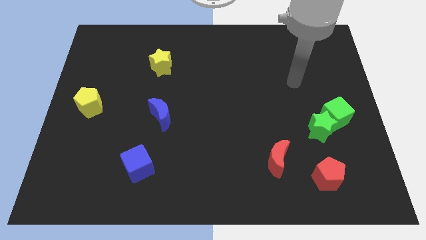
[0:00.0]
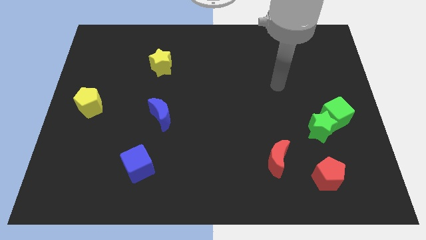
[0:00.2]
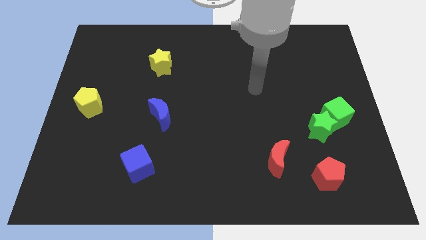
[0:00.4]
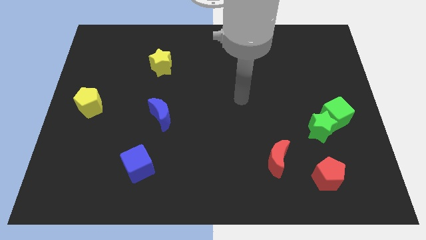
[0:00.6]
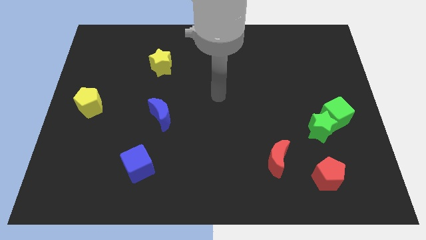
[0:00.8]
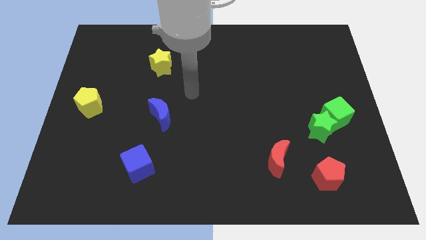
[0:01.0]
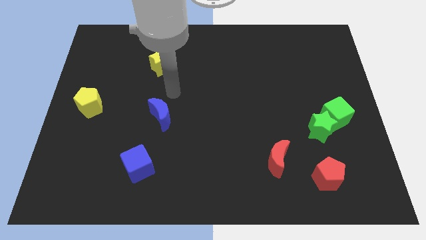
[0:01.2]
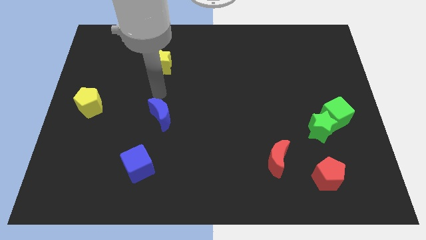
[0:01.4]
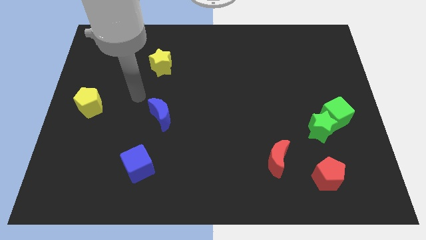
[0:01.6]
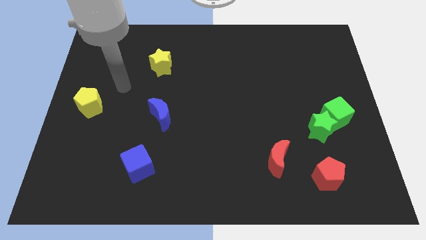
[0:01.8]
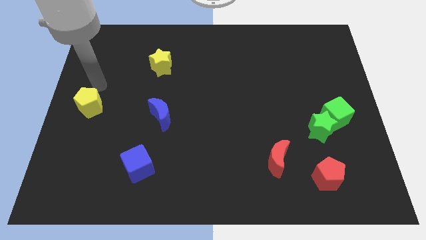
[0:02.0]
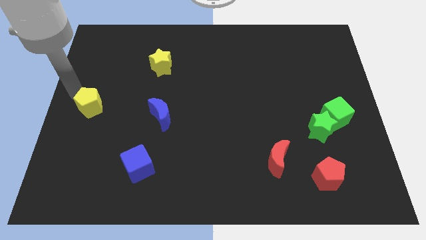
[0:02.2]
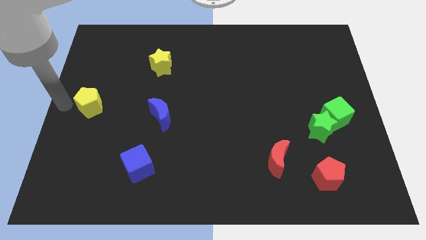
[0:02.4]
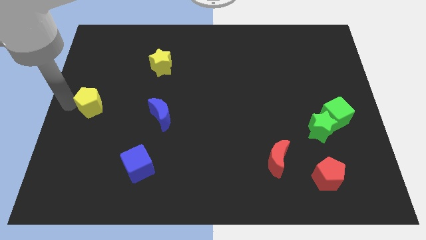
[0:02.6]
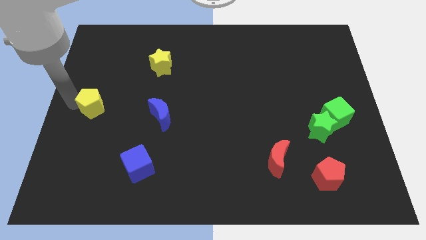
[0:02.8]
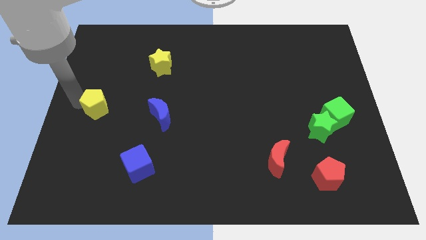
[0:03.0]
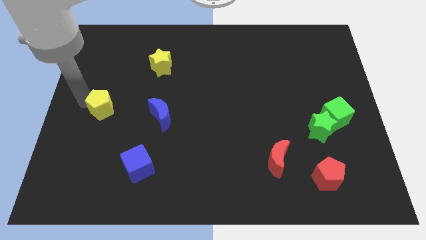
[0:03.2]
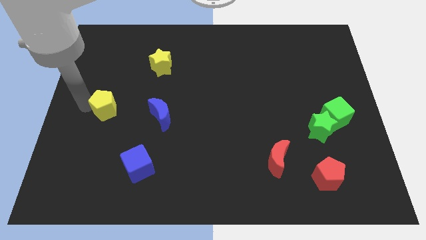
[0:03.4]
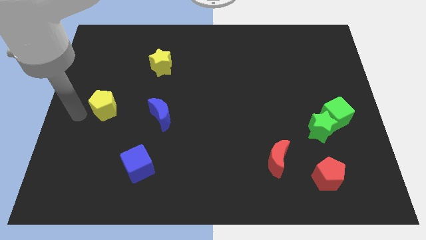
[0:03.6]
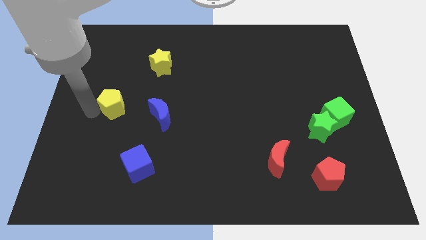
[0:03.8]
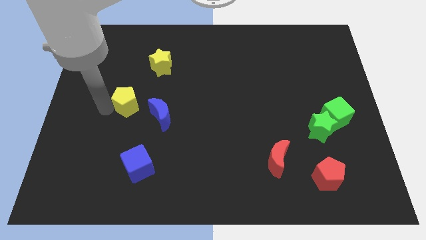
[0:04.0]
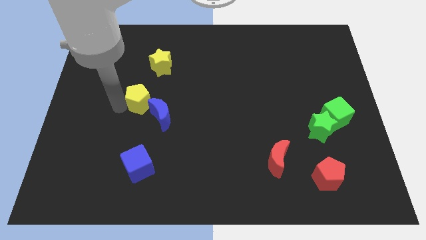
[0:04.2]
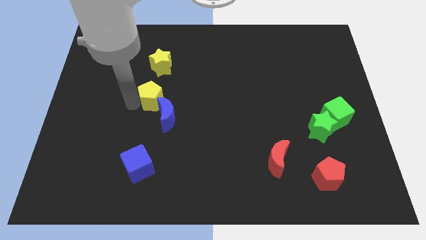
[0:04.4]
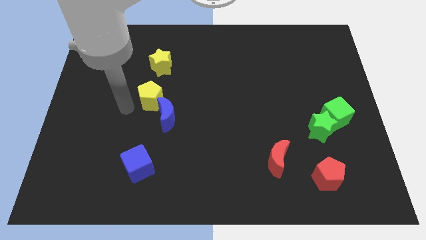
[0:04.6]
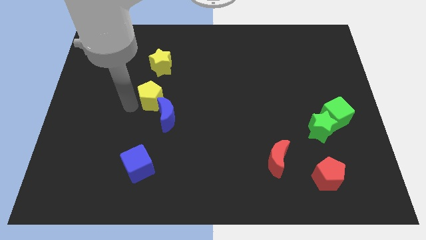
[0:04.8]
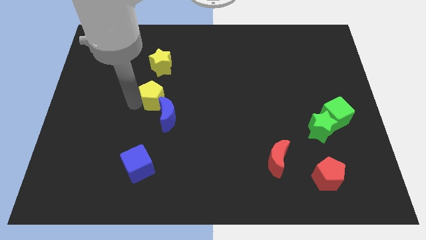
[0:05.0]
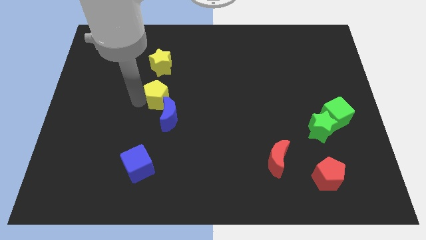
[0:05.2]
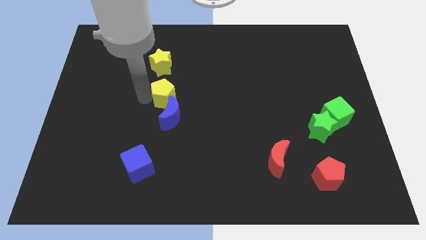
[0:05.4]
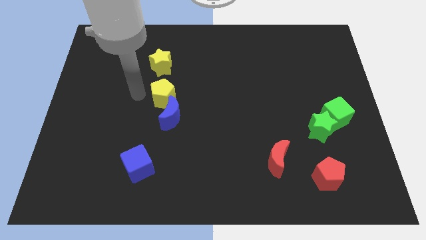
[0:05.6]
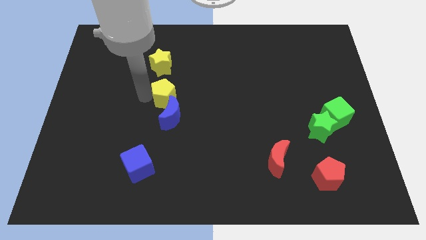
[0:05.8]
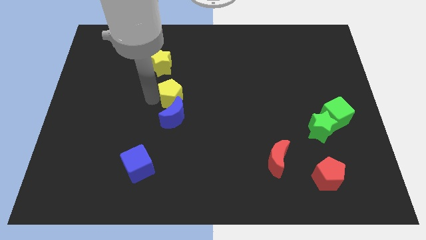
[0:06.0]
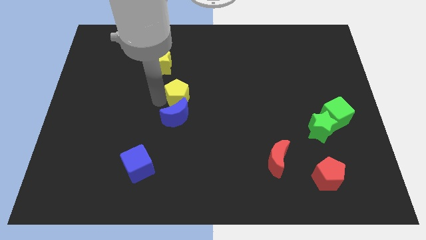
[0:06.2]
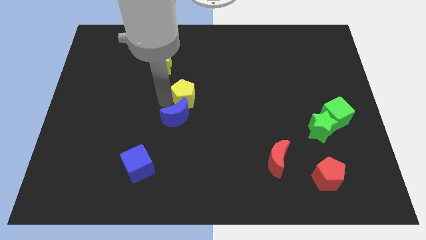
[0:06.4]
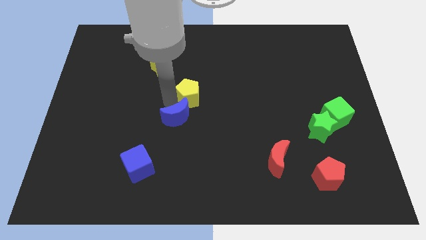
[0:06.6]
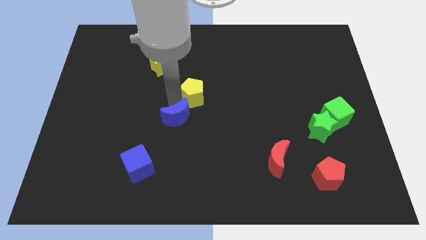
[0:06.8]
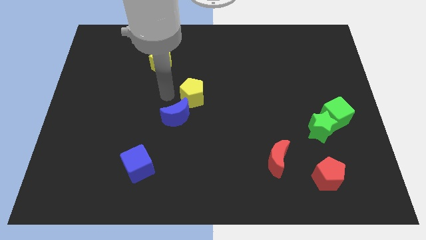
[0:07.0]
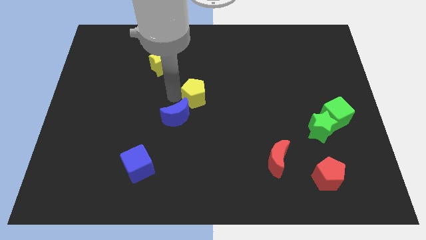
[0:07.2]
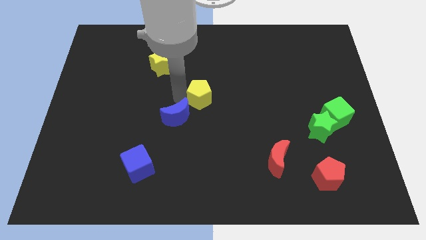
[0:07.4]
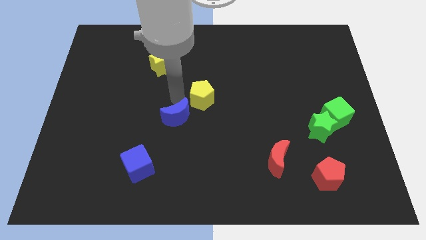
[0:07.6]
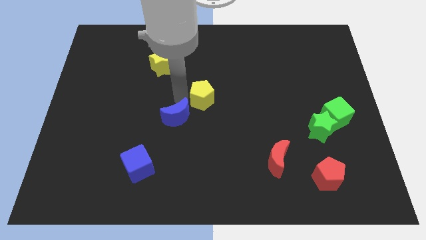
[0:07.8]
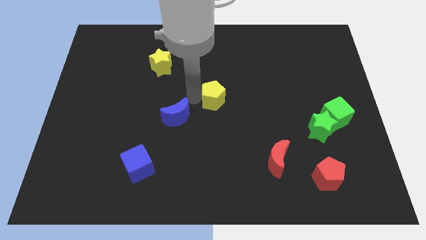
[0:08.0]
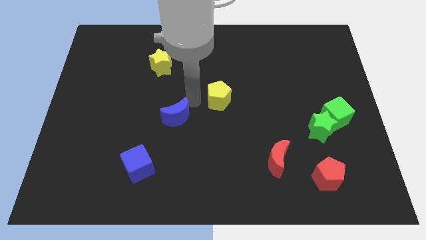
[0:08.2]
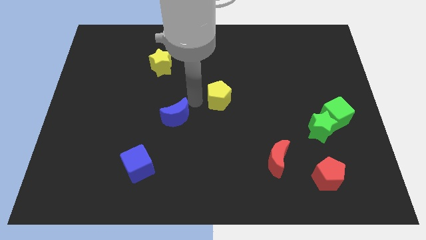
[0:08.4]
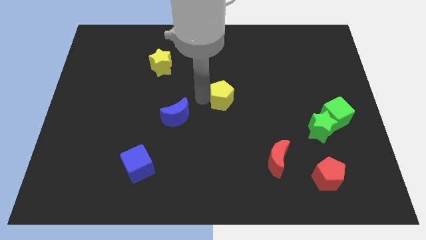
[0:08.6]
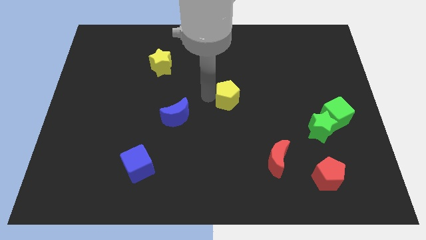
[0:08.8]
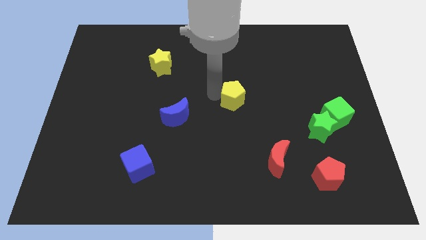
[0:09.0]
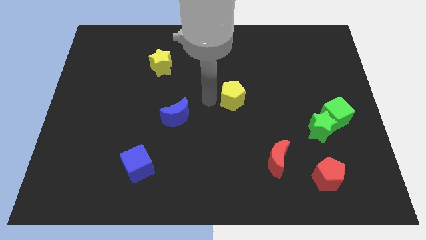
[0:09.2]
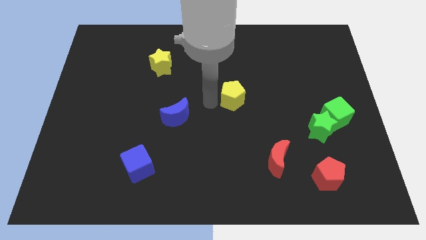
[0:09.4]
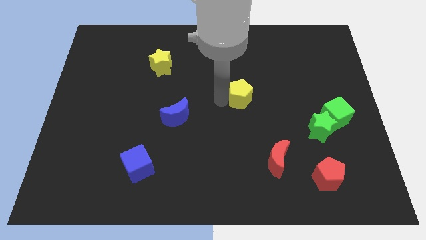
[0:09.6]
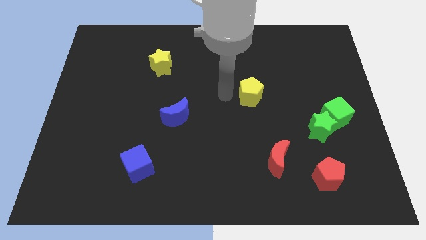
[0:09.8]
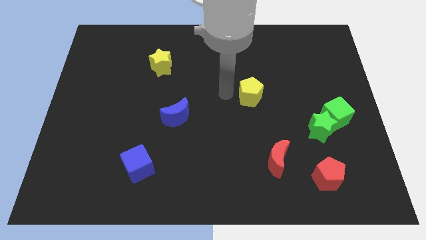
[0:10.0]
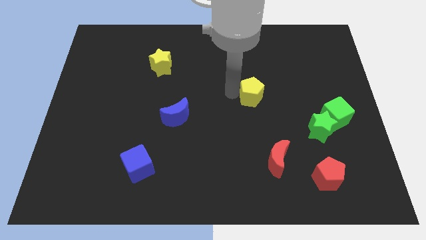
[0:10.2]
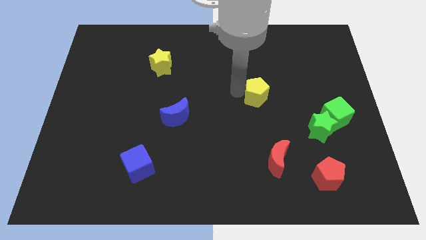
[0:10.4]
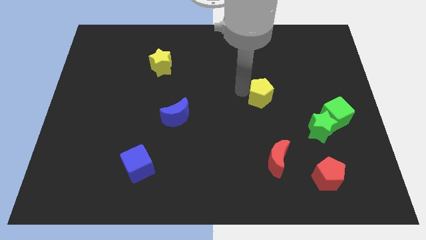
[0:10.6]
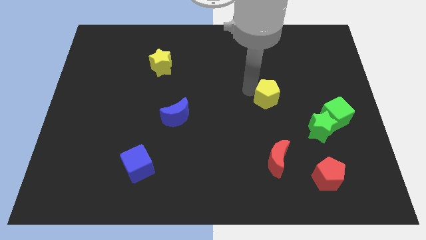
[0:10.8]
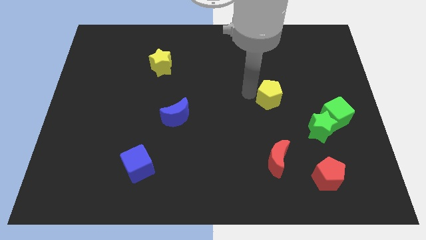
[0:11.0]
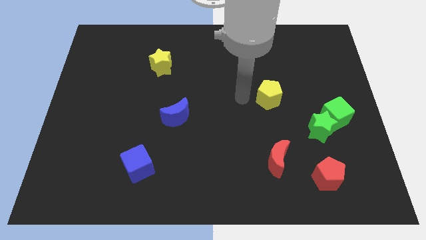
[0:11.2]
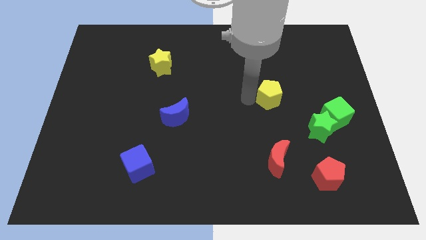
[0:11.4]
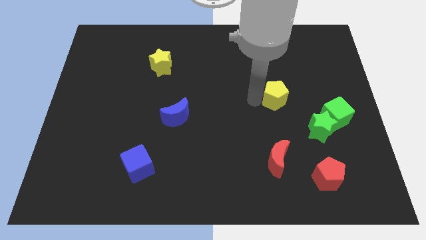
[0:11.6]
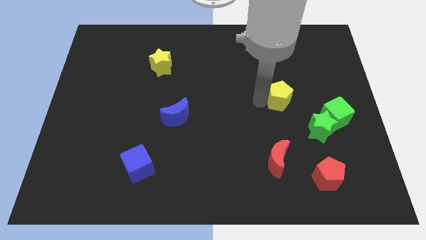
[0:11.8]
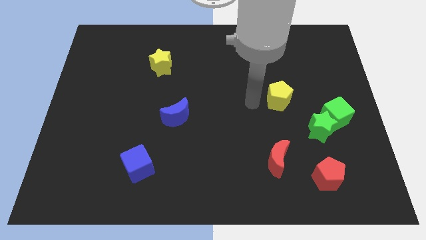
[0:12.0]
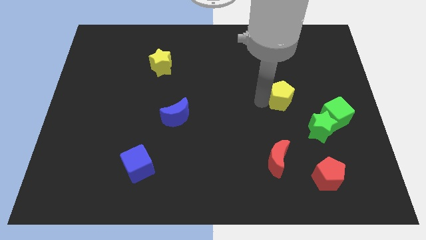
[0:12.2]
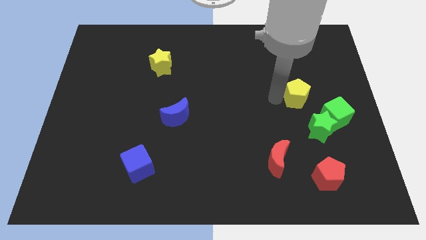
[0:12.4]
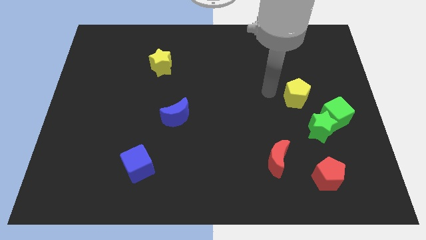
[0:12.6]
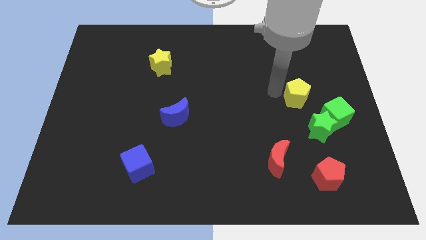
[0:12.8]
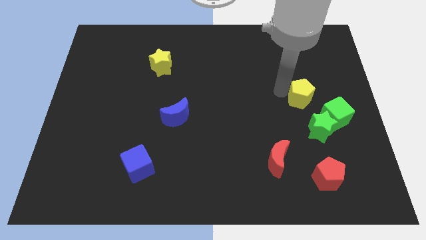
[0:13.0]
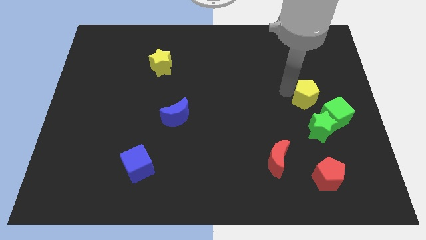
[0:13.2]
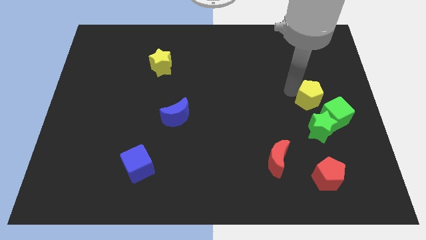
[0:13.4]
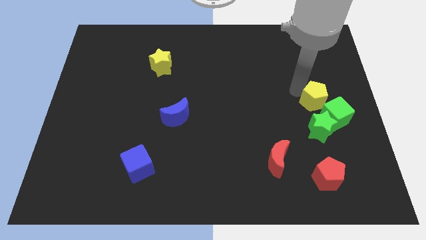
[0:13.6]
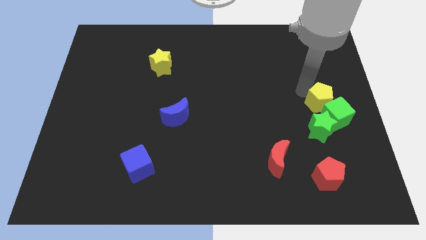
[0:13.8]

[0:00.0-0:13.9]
slide the yellow pentagon to the top right side of the green star
